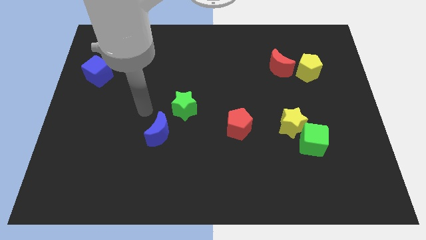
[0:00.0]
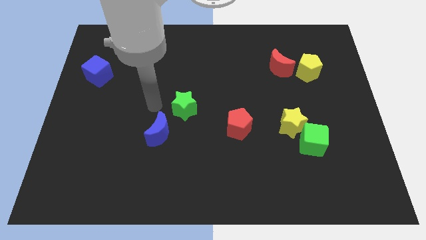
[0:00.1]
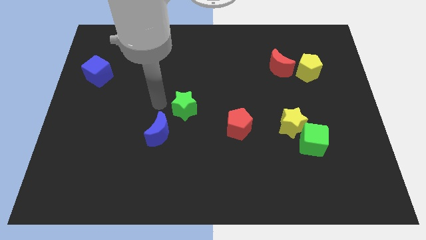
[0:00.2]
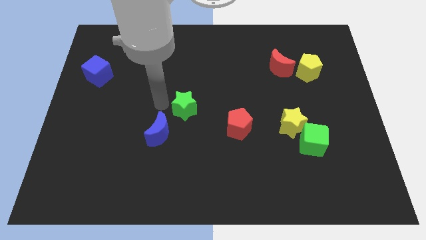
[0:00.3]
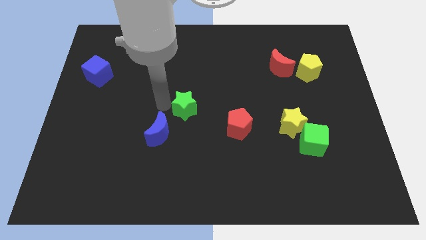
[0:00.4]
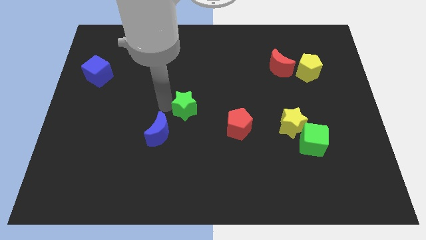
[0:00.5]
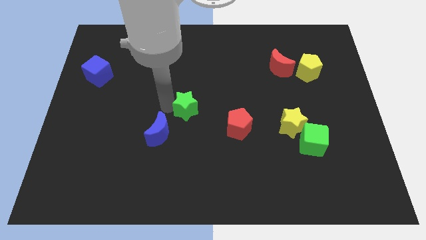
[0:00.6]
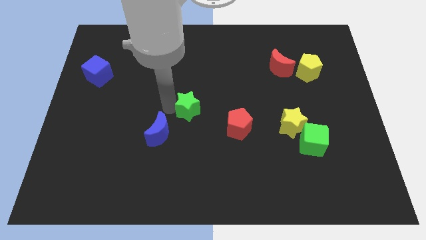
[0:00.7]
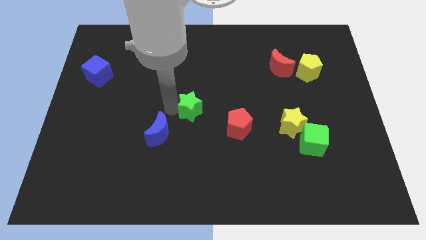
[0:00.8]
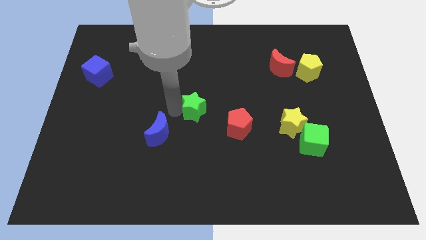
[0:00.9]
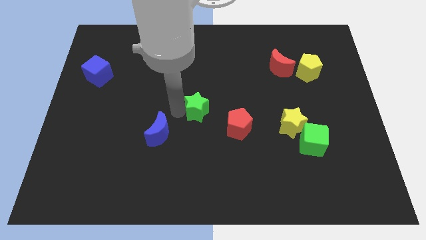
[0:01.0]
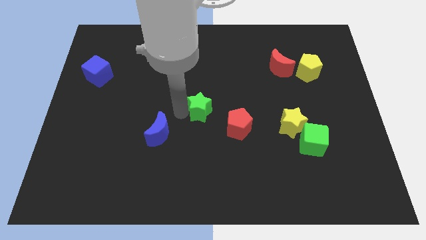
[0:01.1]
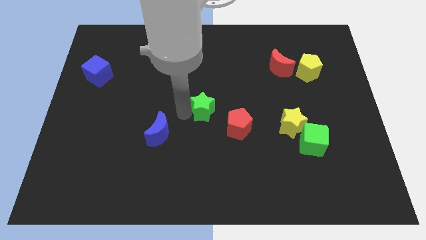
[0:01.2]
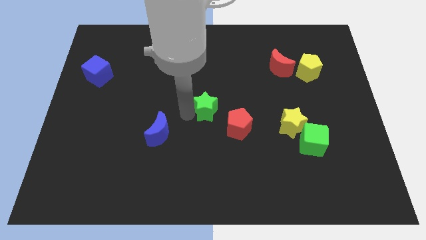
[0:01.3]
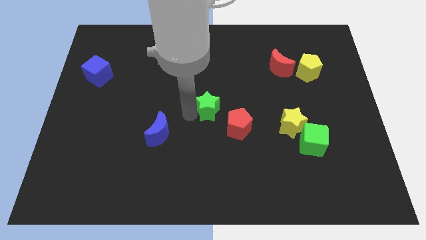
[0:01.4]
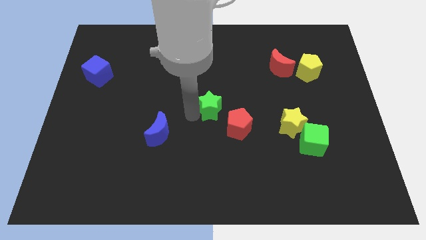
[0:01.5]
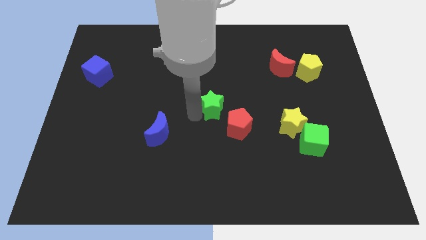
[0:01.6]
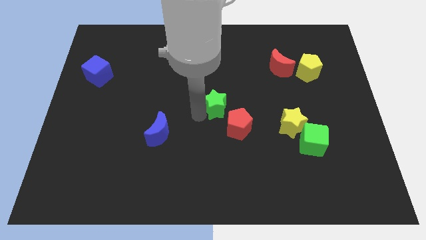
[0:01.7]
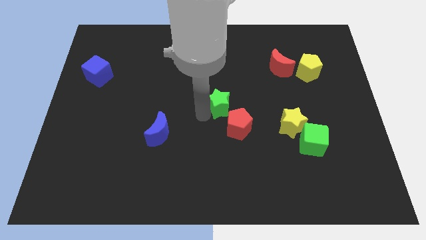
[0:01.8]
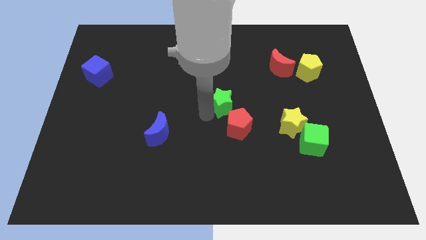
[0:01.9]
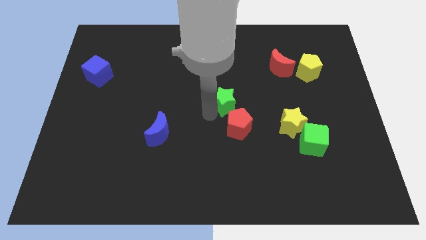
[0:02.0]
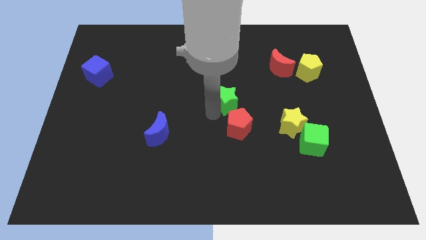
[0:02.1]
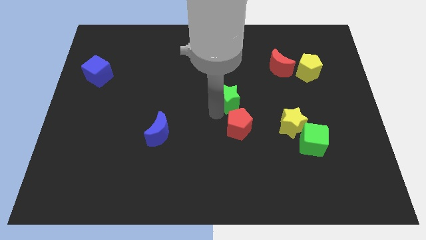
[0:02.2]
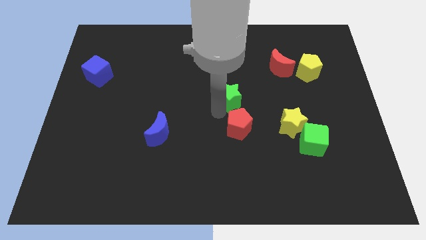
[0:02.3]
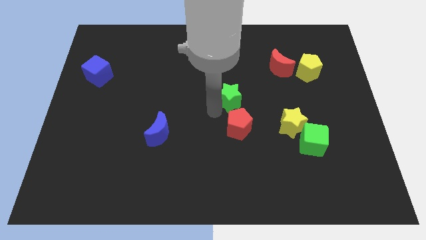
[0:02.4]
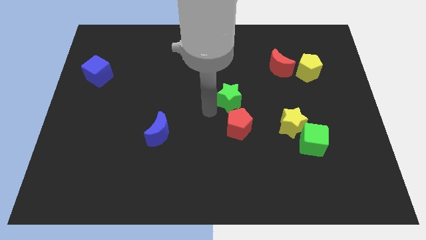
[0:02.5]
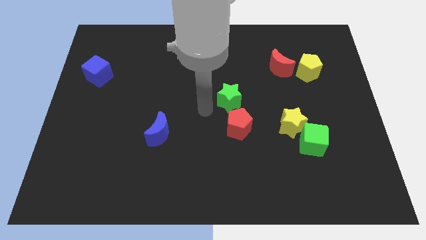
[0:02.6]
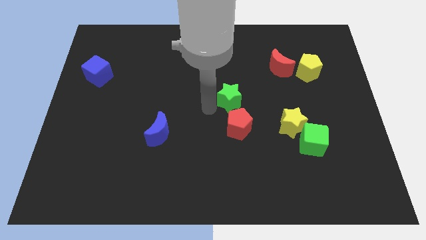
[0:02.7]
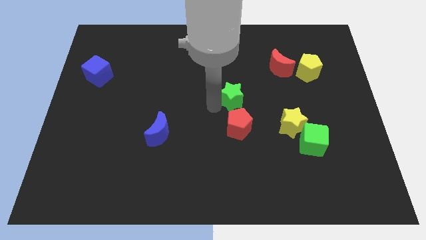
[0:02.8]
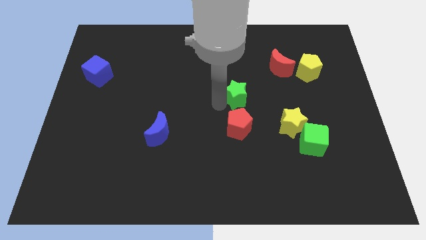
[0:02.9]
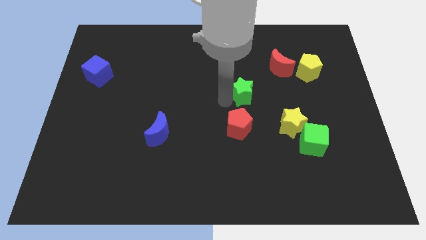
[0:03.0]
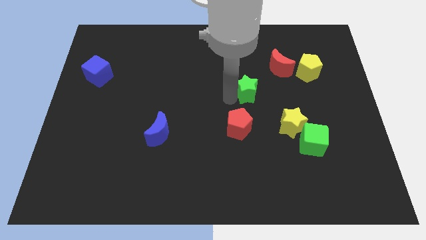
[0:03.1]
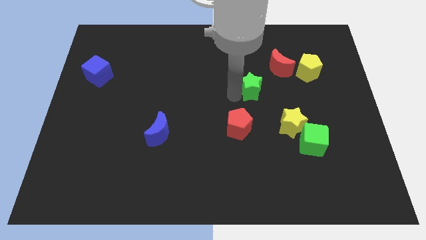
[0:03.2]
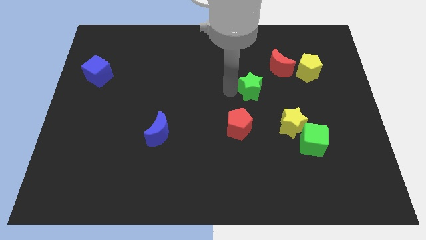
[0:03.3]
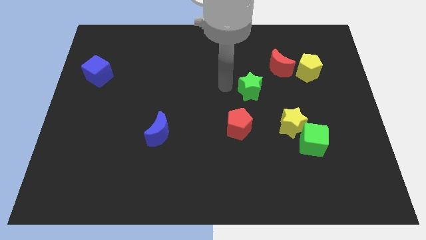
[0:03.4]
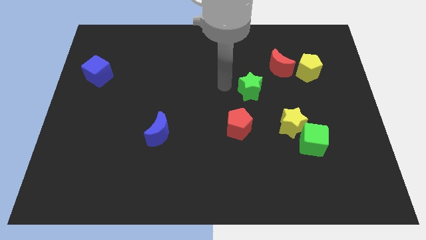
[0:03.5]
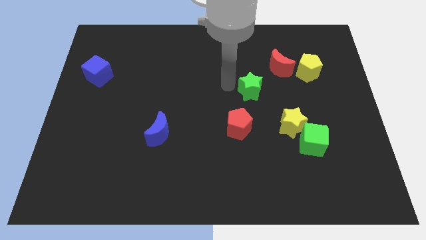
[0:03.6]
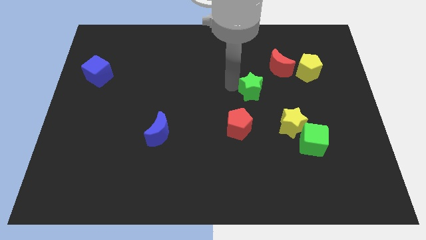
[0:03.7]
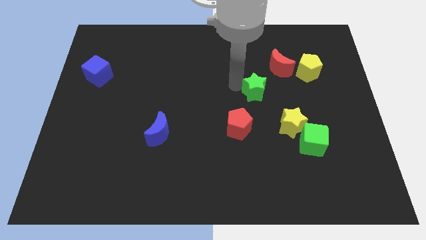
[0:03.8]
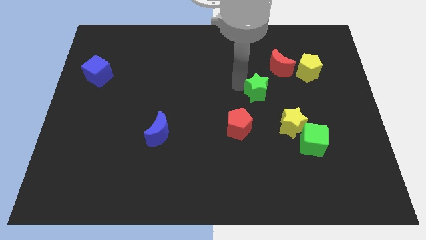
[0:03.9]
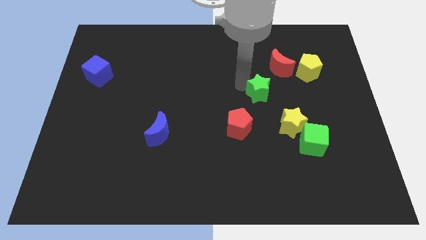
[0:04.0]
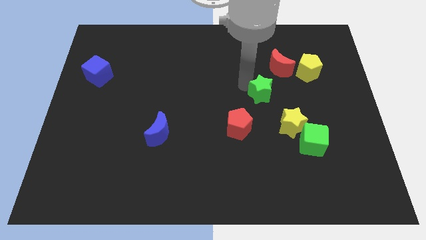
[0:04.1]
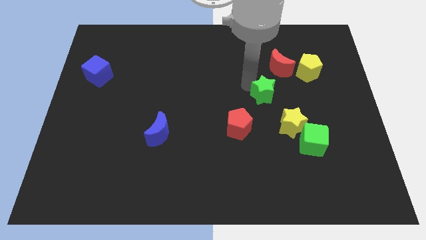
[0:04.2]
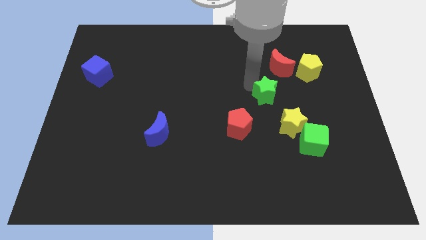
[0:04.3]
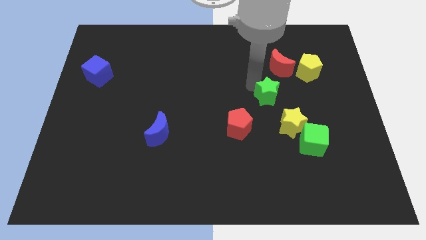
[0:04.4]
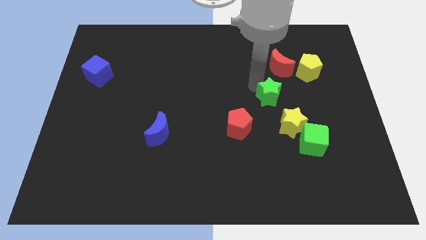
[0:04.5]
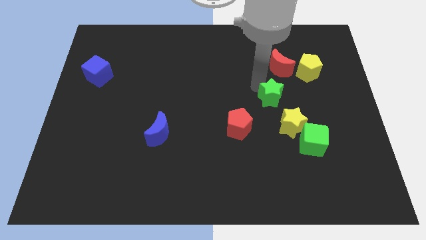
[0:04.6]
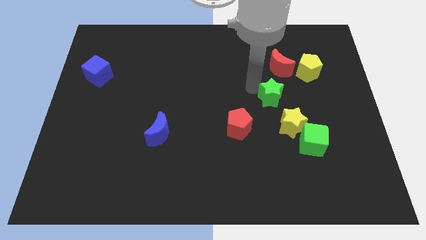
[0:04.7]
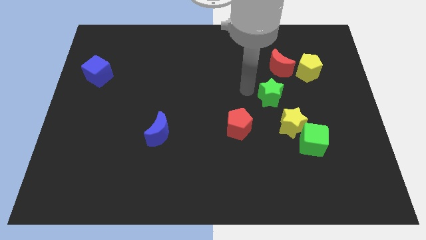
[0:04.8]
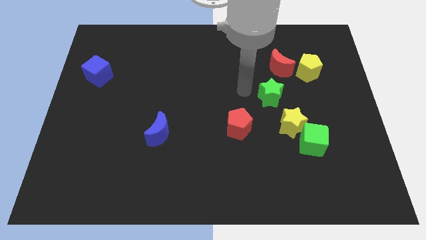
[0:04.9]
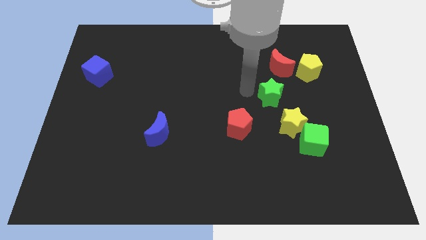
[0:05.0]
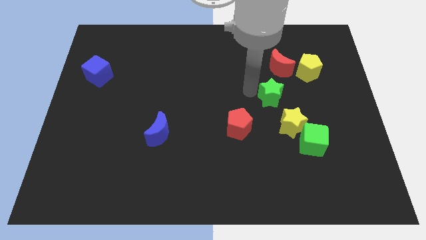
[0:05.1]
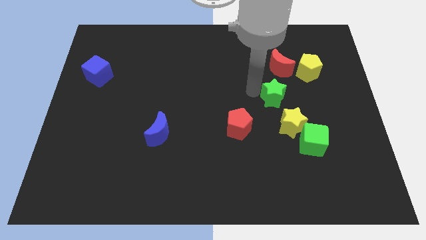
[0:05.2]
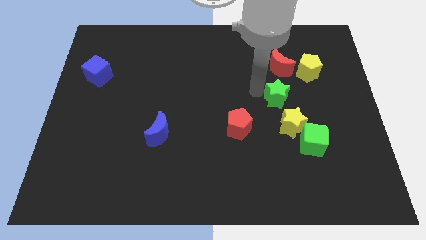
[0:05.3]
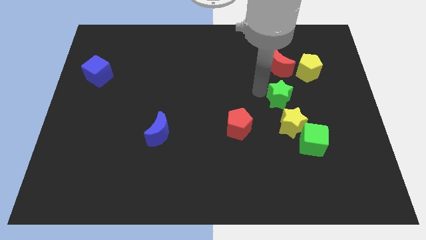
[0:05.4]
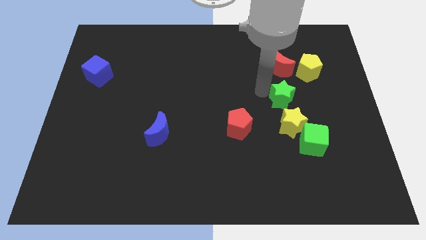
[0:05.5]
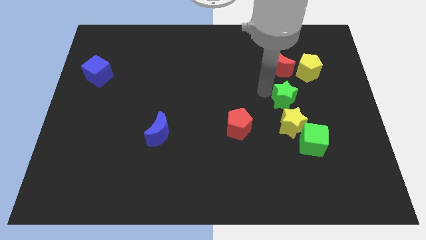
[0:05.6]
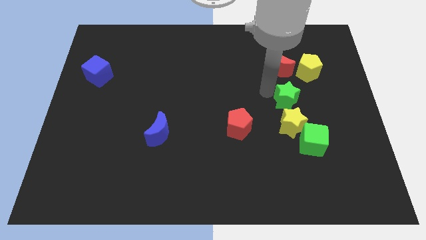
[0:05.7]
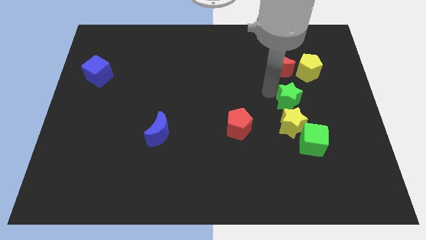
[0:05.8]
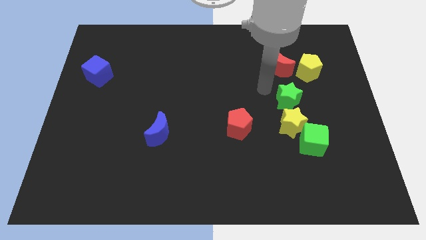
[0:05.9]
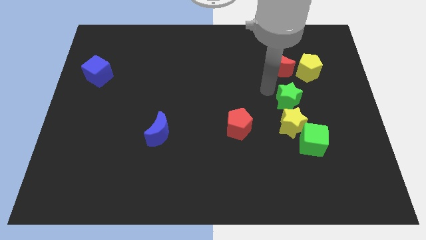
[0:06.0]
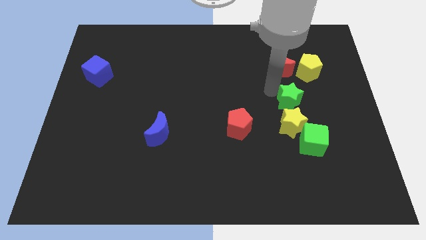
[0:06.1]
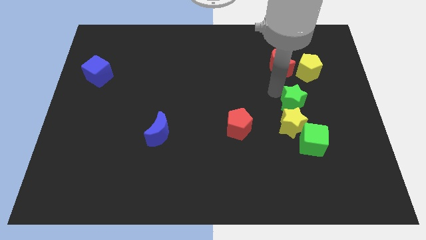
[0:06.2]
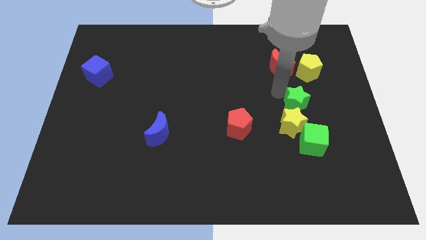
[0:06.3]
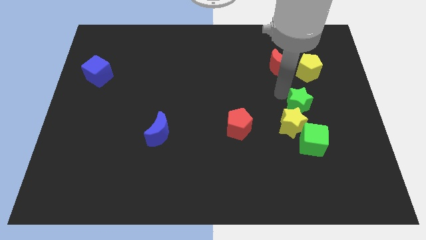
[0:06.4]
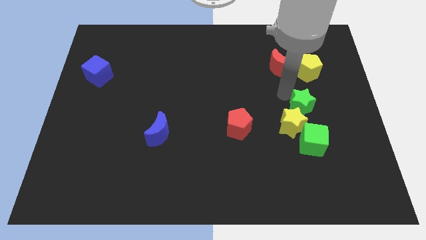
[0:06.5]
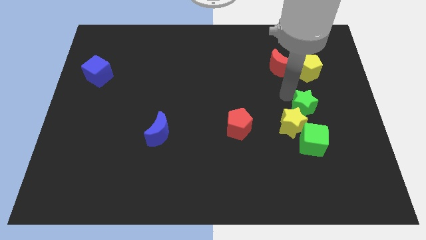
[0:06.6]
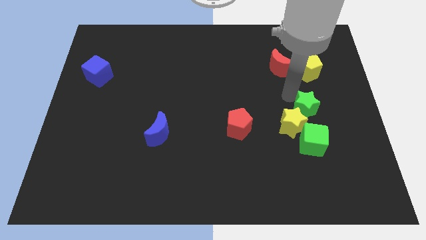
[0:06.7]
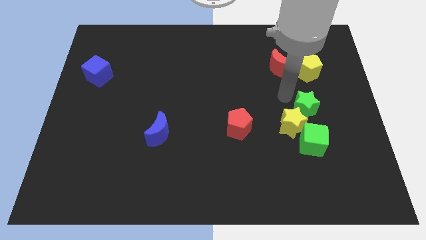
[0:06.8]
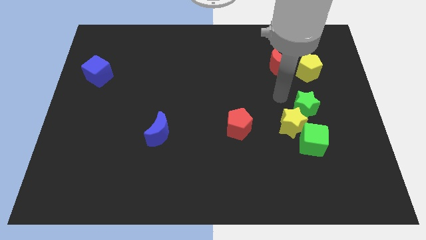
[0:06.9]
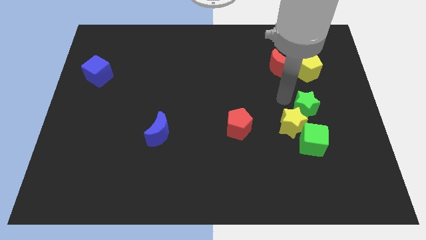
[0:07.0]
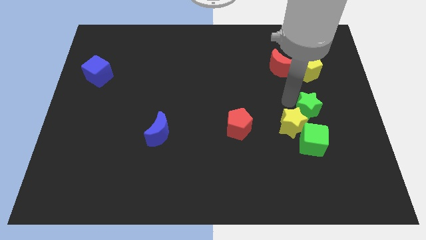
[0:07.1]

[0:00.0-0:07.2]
move the green star to the right of the yellow star
